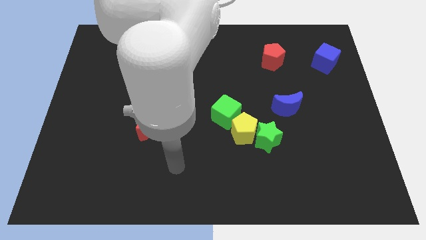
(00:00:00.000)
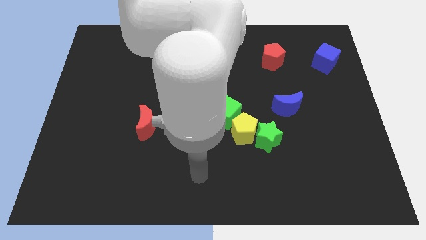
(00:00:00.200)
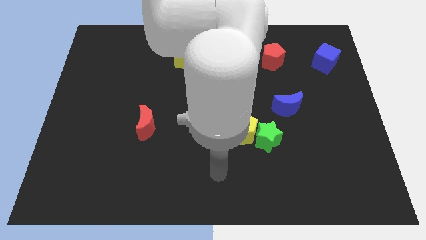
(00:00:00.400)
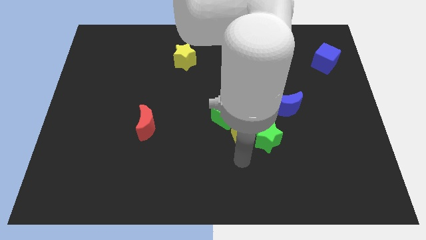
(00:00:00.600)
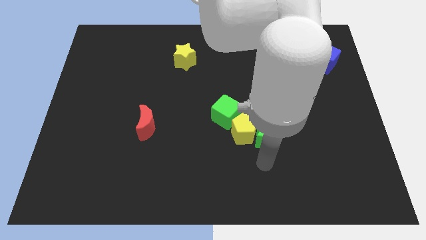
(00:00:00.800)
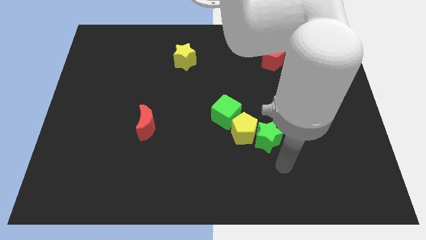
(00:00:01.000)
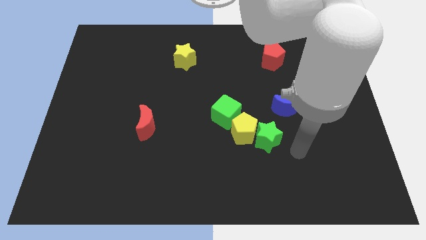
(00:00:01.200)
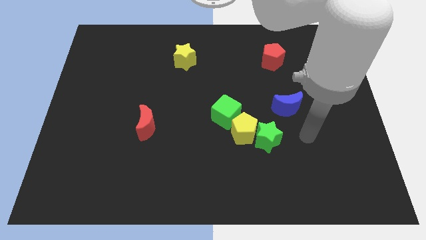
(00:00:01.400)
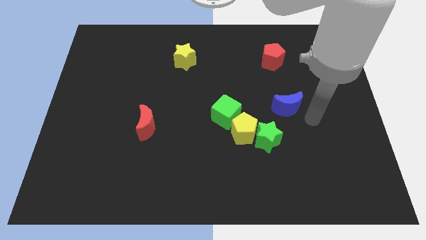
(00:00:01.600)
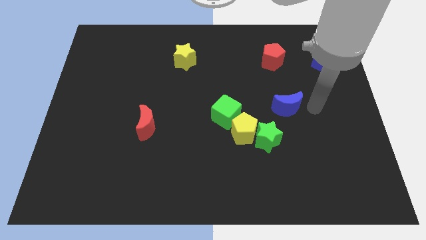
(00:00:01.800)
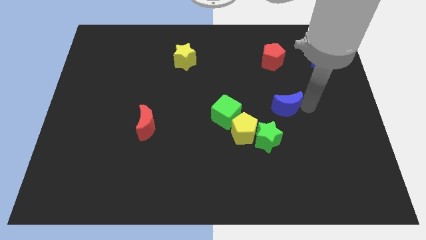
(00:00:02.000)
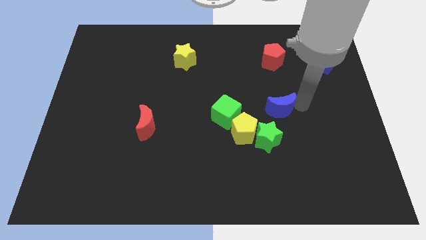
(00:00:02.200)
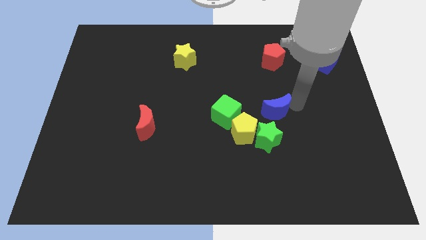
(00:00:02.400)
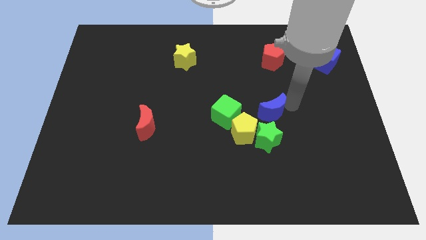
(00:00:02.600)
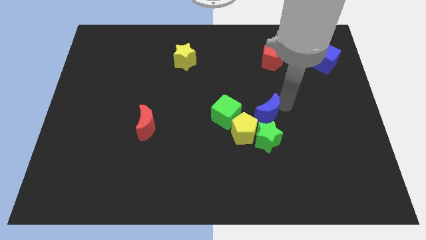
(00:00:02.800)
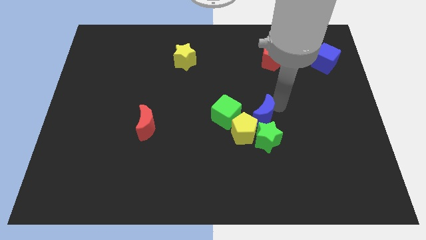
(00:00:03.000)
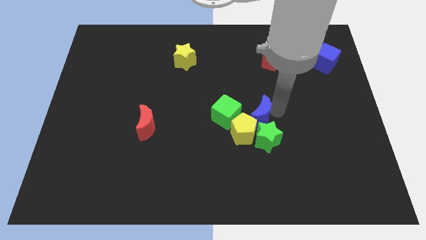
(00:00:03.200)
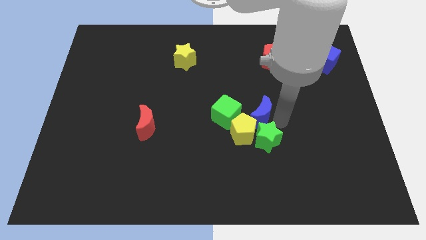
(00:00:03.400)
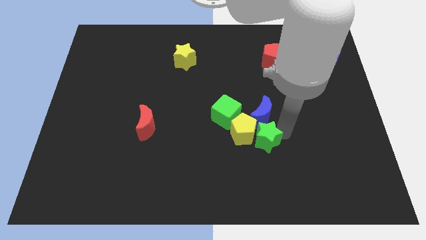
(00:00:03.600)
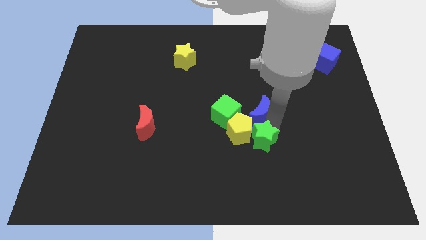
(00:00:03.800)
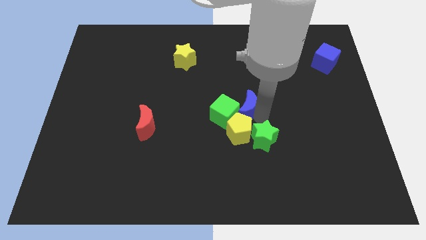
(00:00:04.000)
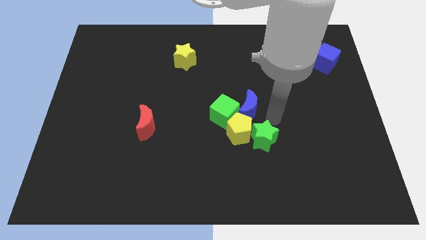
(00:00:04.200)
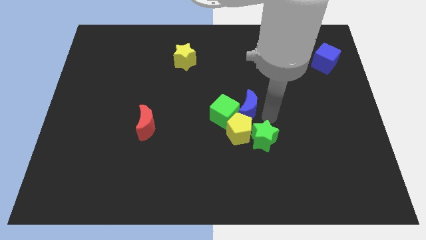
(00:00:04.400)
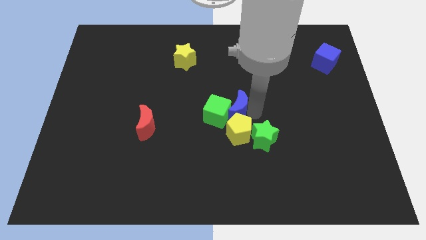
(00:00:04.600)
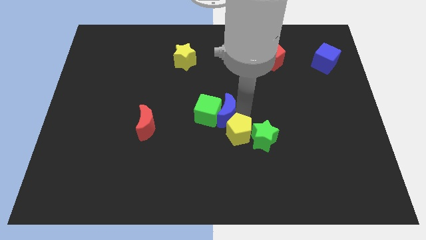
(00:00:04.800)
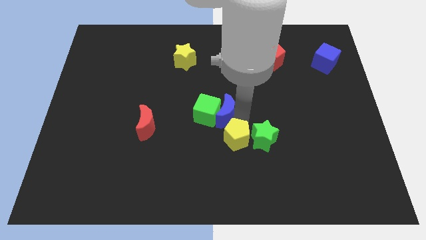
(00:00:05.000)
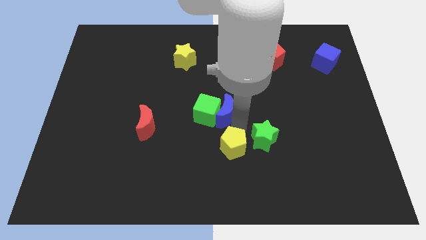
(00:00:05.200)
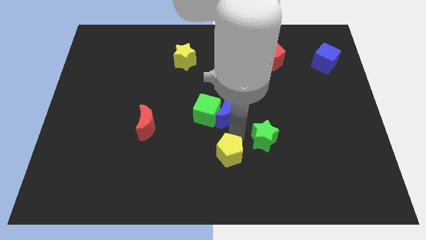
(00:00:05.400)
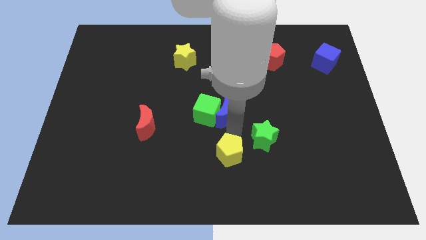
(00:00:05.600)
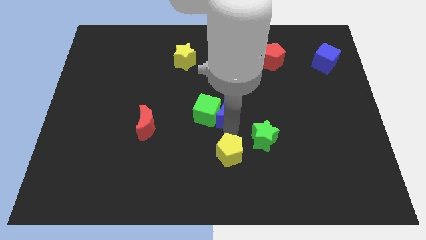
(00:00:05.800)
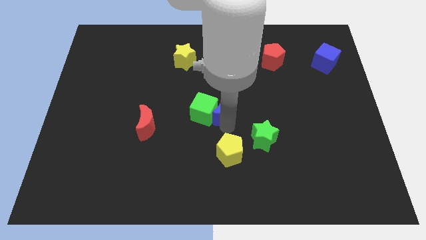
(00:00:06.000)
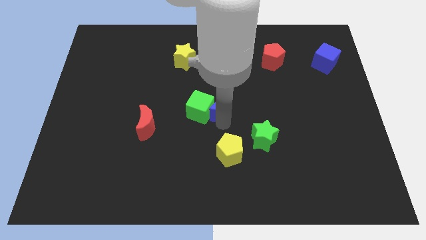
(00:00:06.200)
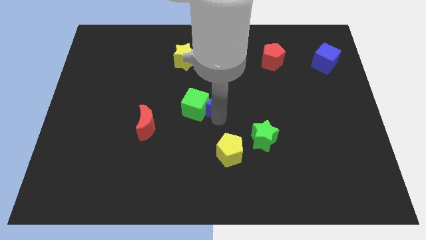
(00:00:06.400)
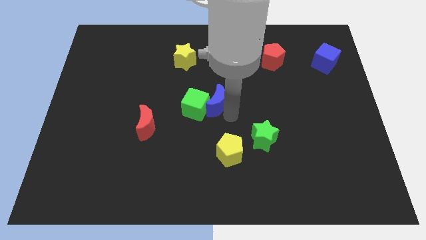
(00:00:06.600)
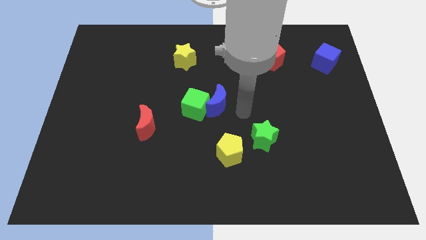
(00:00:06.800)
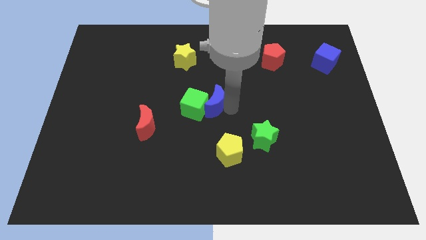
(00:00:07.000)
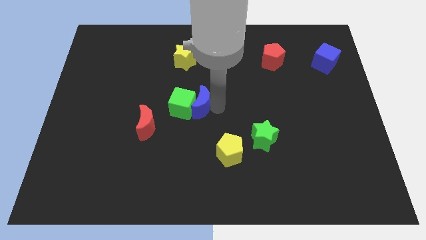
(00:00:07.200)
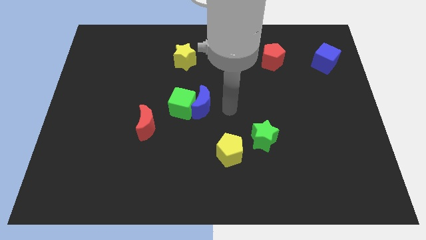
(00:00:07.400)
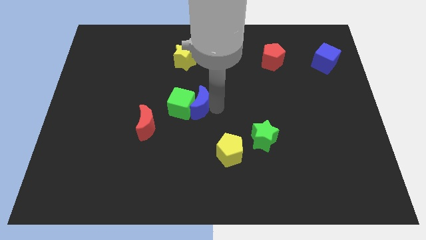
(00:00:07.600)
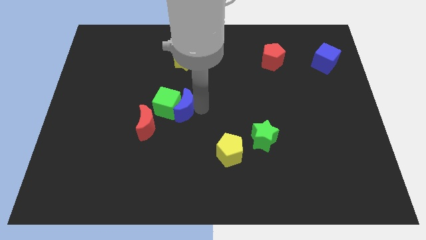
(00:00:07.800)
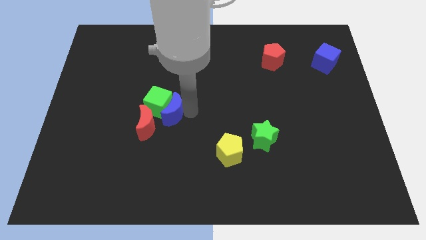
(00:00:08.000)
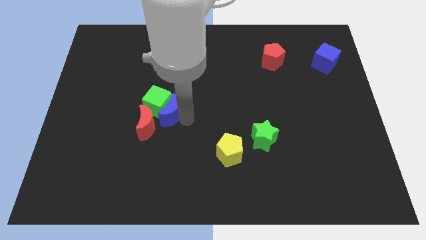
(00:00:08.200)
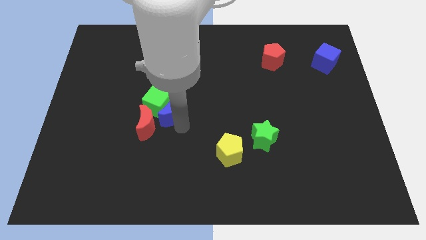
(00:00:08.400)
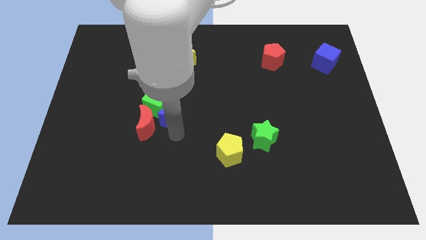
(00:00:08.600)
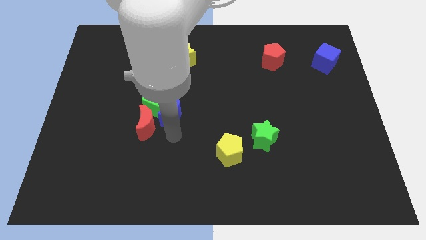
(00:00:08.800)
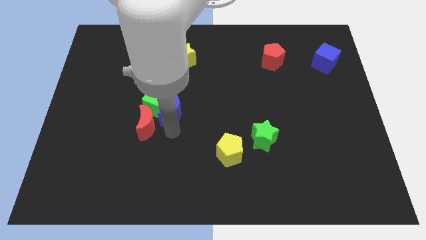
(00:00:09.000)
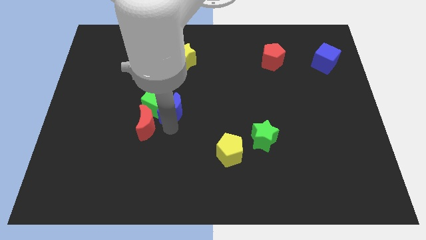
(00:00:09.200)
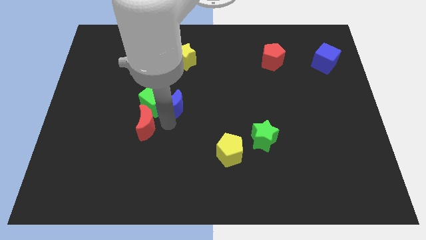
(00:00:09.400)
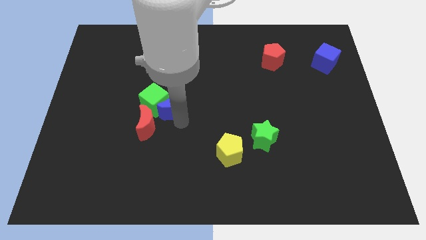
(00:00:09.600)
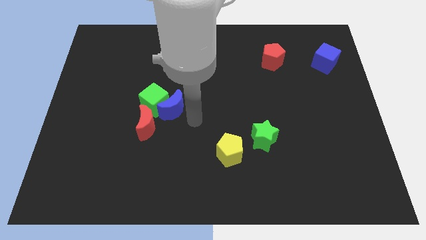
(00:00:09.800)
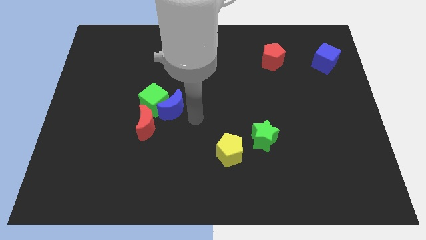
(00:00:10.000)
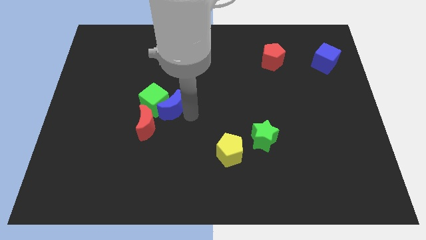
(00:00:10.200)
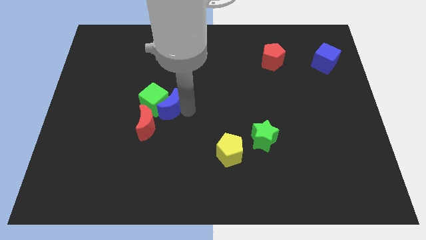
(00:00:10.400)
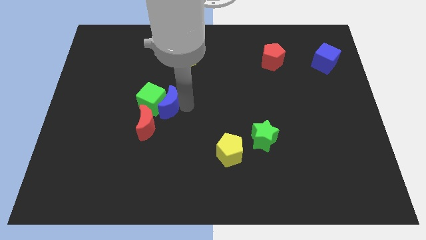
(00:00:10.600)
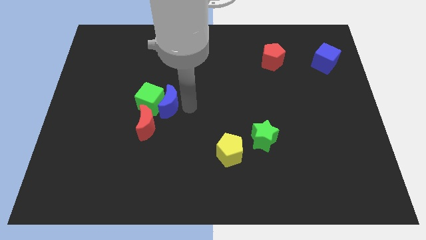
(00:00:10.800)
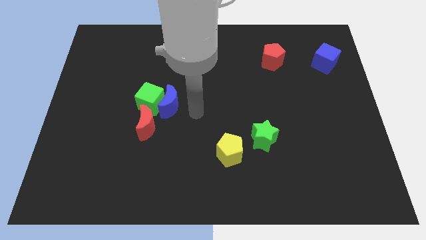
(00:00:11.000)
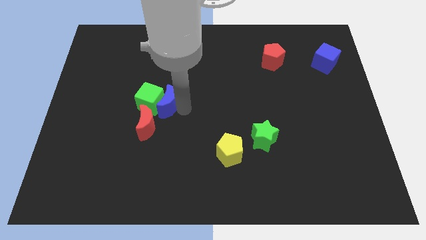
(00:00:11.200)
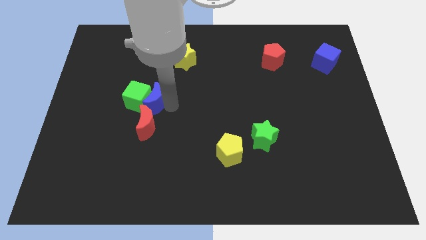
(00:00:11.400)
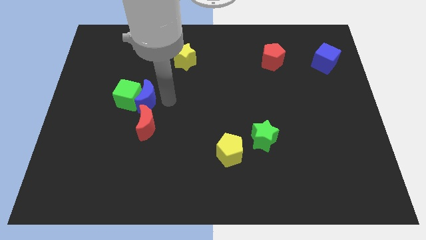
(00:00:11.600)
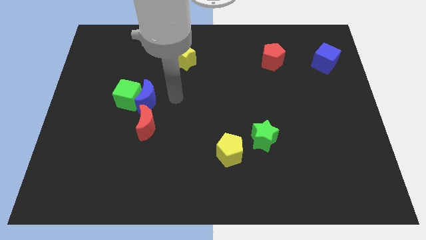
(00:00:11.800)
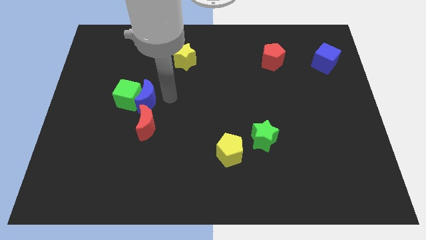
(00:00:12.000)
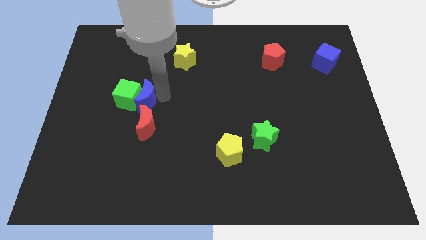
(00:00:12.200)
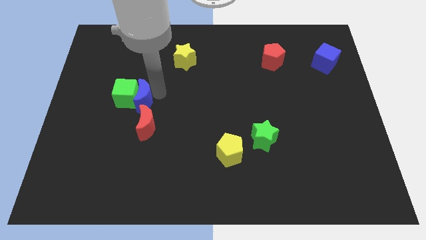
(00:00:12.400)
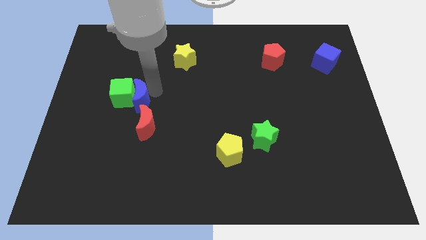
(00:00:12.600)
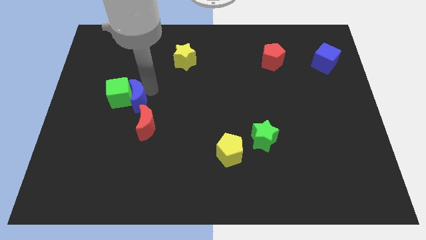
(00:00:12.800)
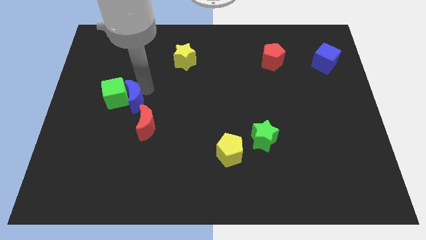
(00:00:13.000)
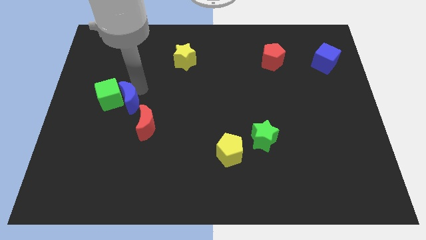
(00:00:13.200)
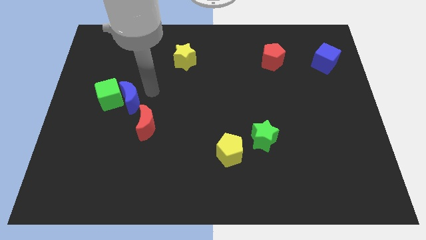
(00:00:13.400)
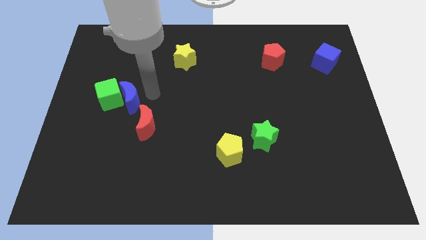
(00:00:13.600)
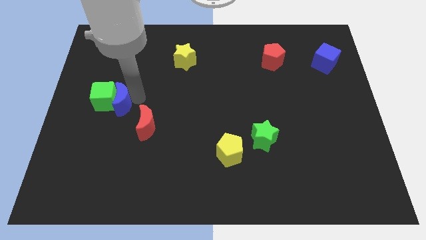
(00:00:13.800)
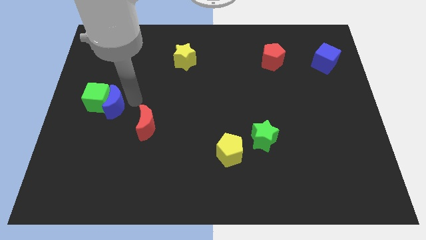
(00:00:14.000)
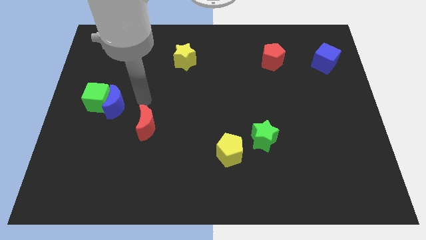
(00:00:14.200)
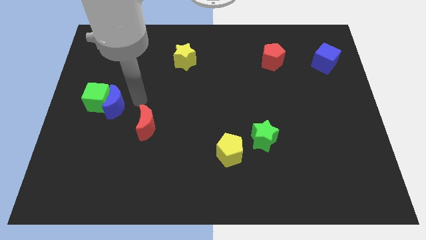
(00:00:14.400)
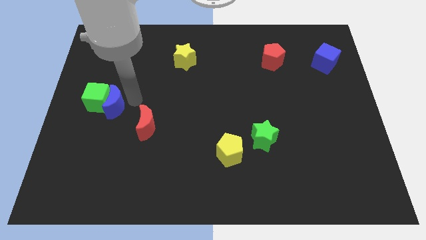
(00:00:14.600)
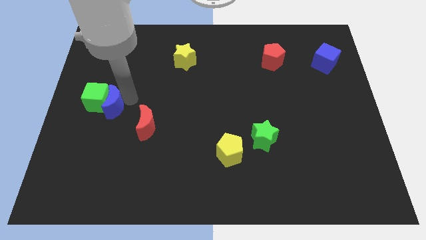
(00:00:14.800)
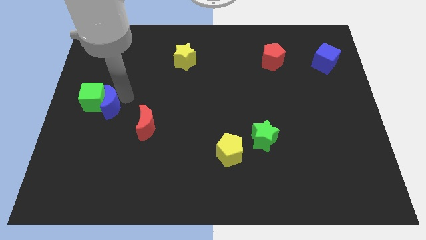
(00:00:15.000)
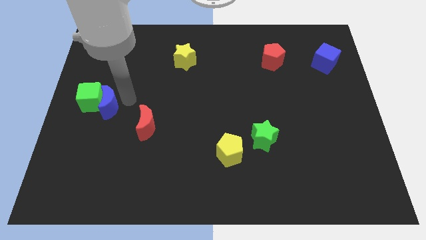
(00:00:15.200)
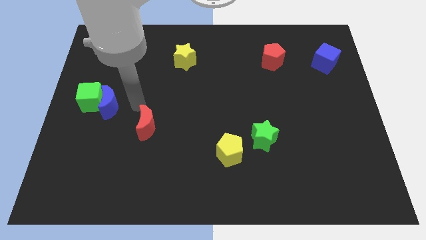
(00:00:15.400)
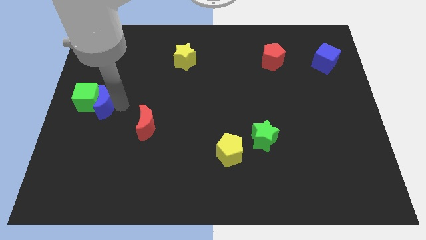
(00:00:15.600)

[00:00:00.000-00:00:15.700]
slide the blue moon to the left side of the board
